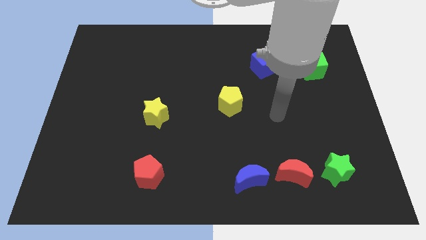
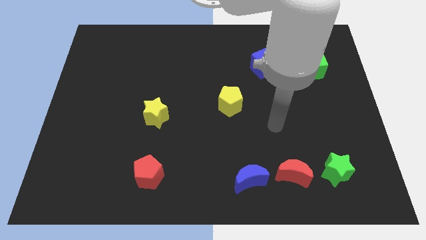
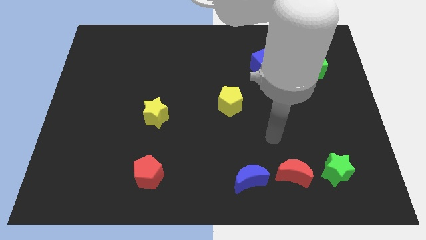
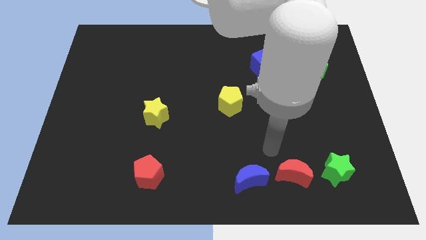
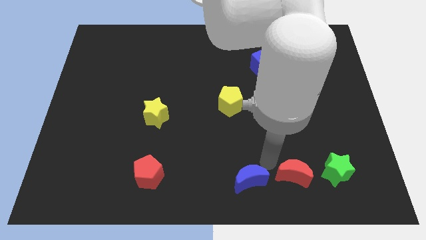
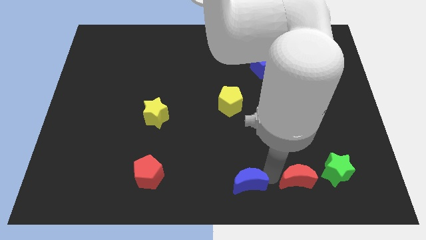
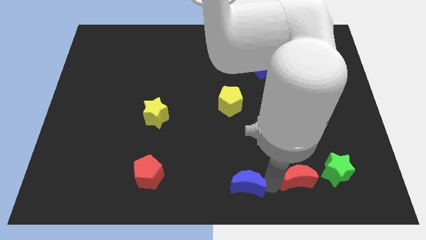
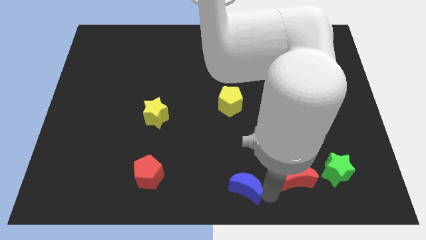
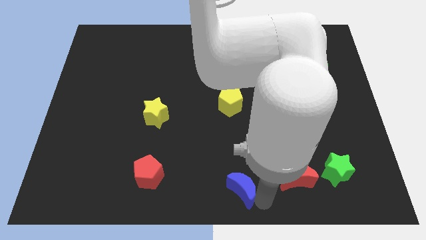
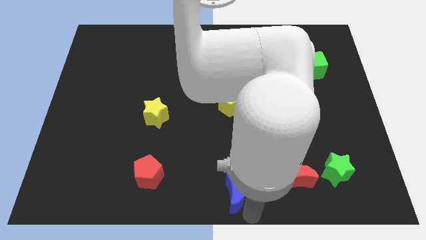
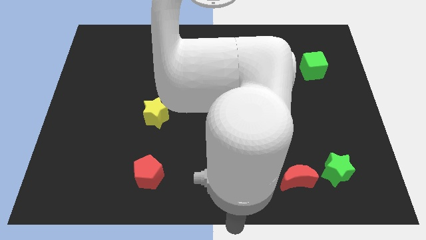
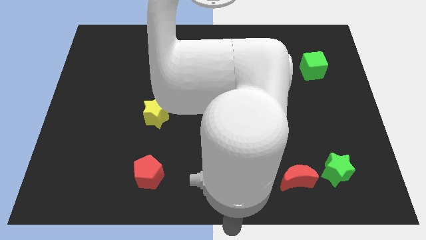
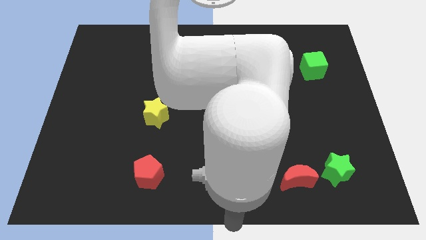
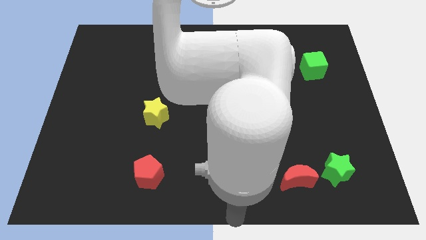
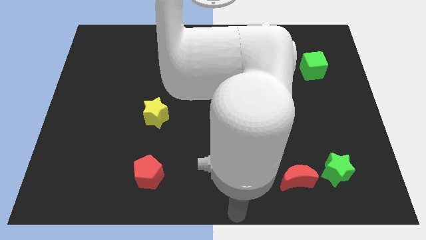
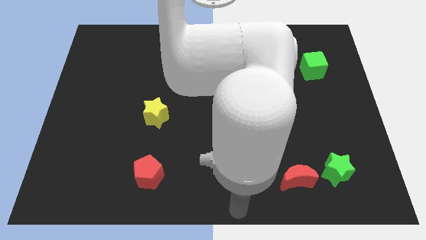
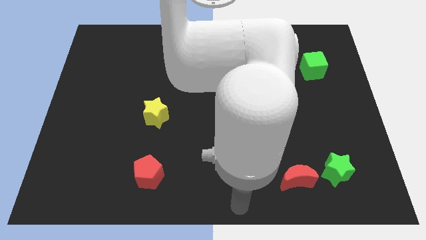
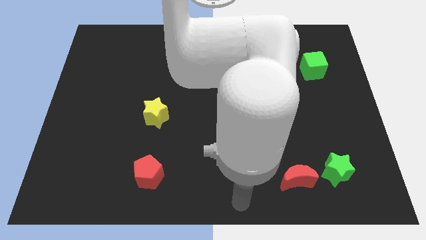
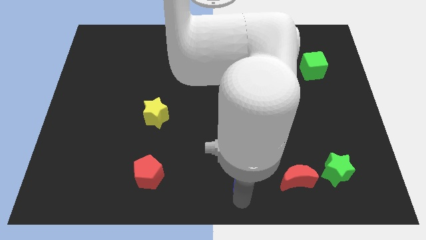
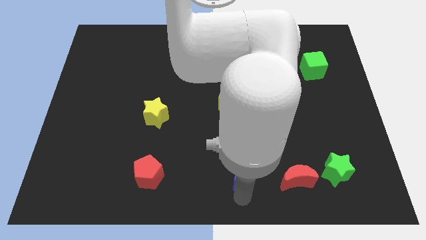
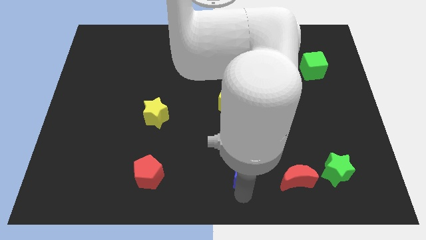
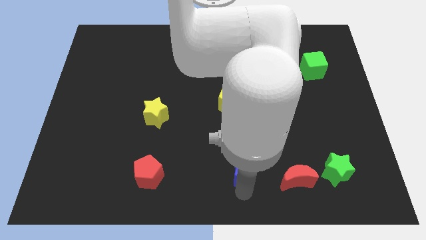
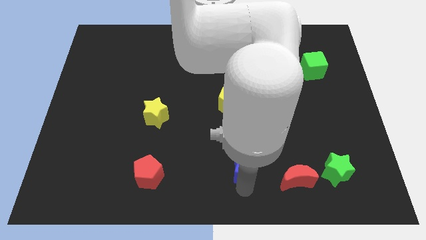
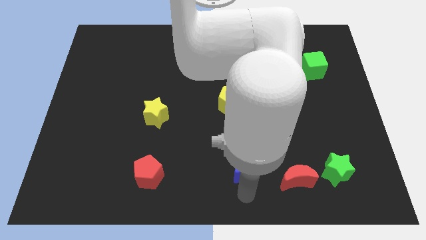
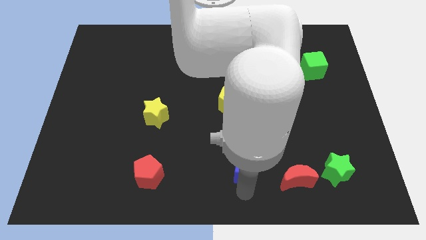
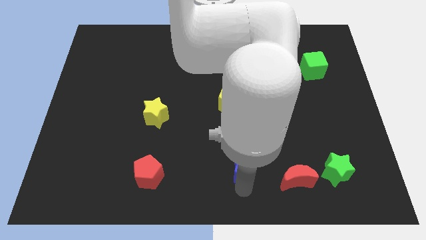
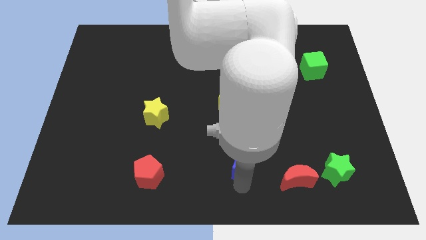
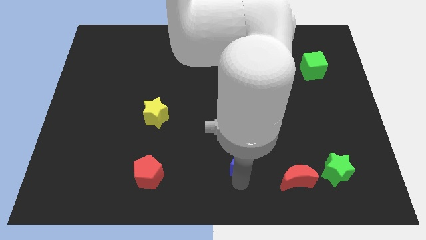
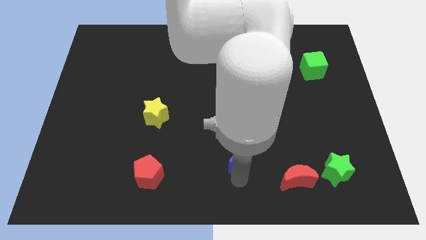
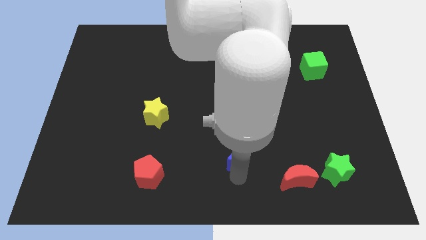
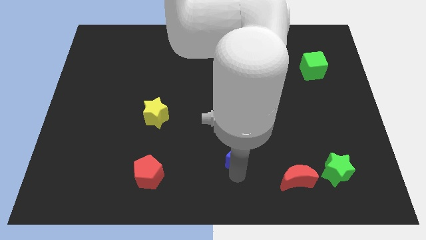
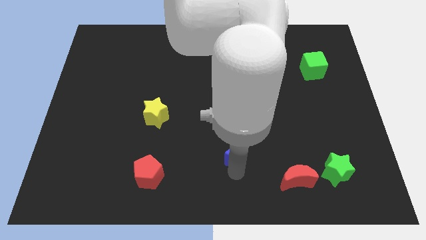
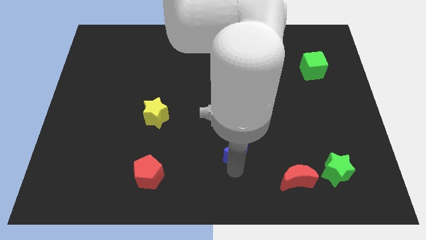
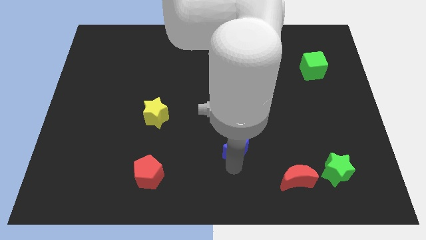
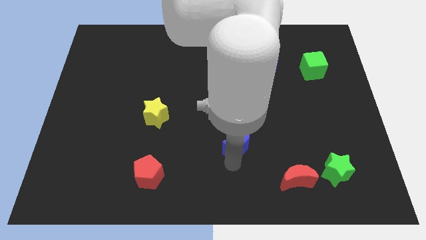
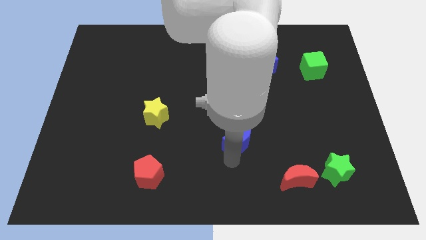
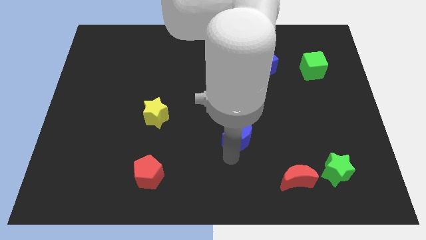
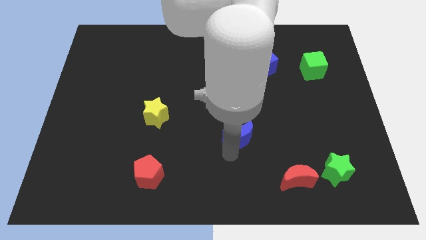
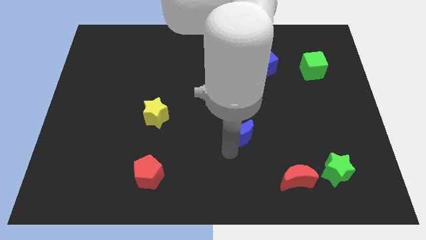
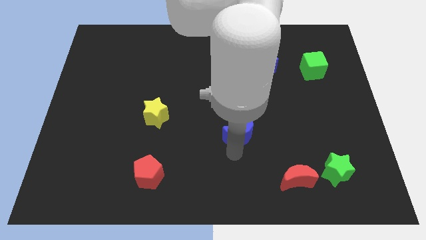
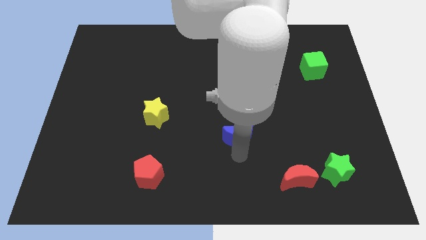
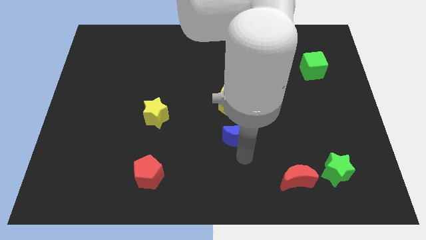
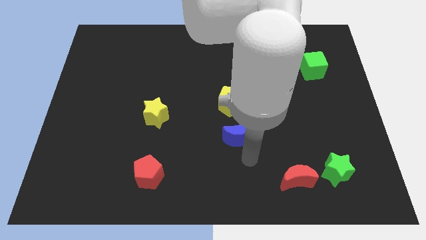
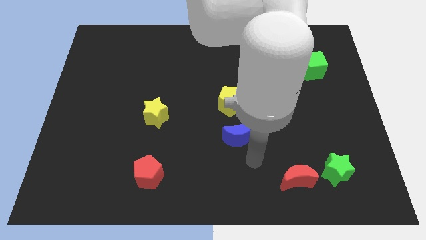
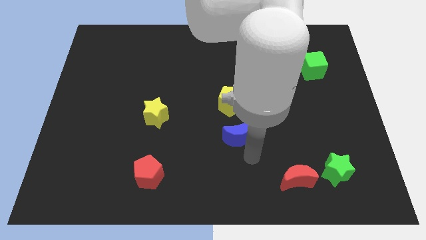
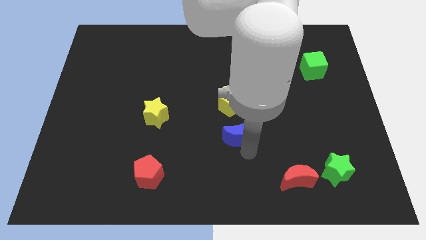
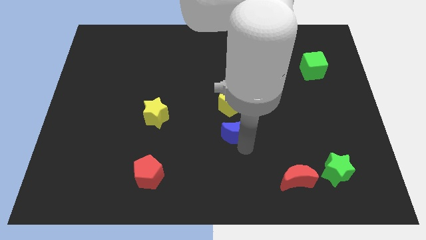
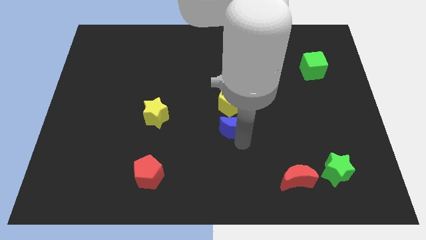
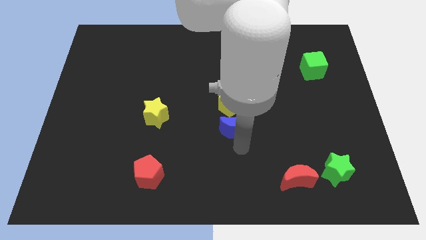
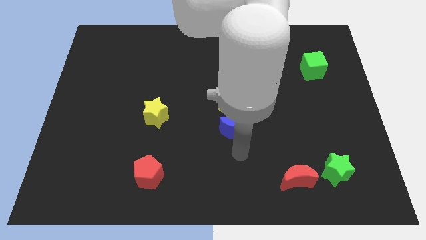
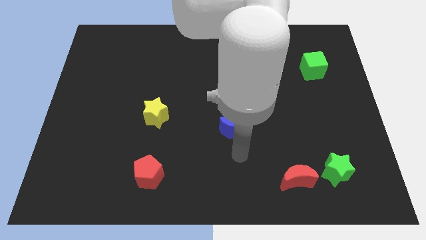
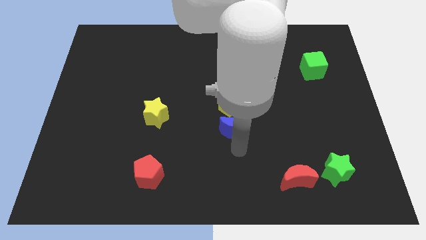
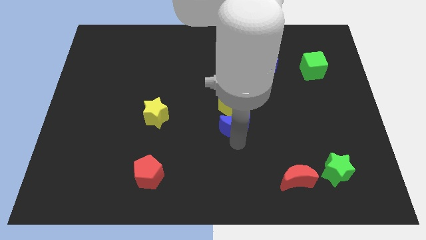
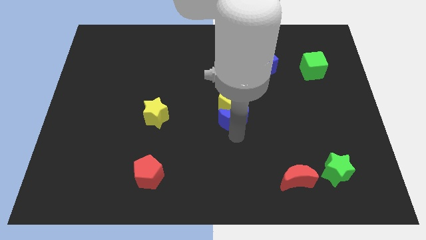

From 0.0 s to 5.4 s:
move the blue moon next to the yellow pentagon

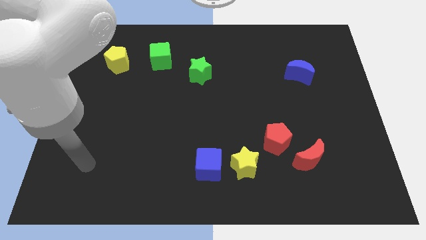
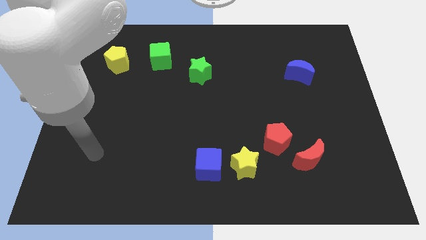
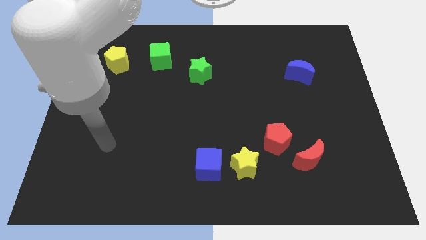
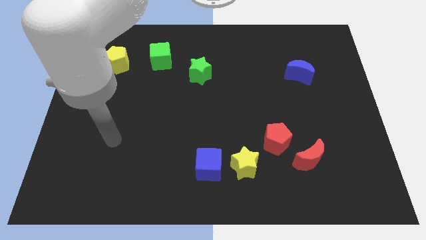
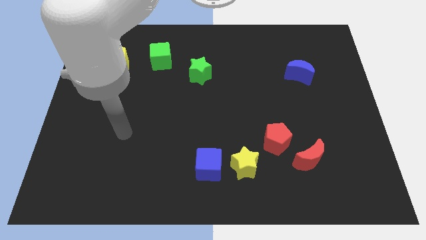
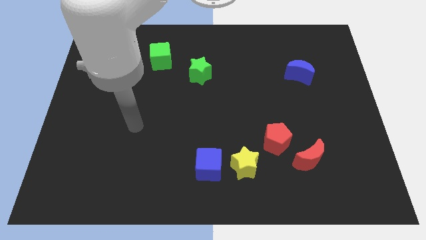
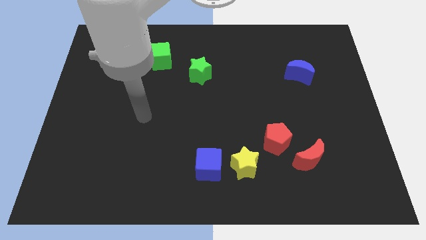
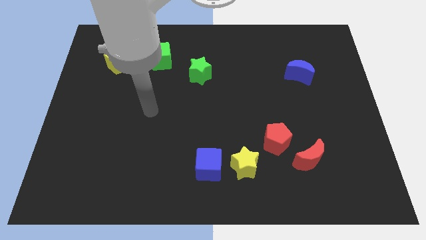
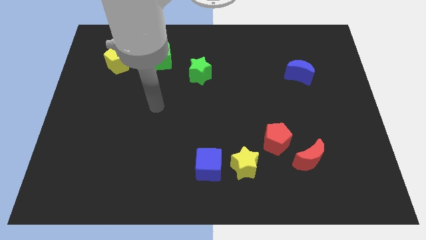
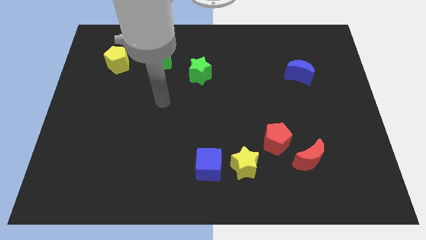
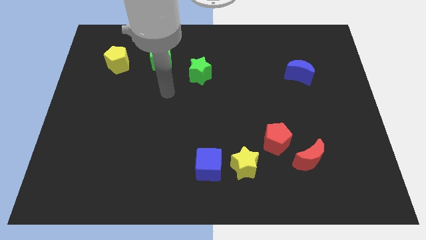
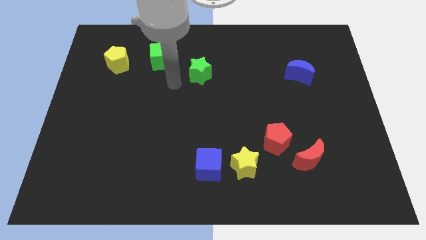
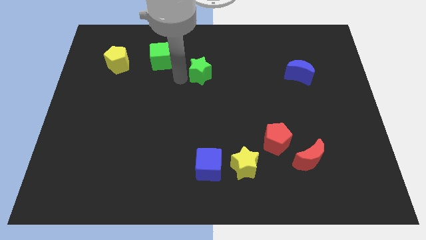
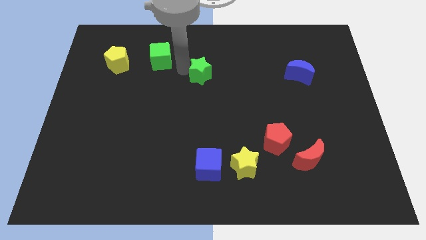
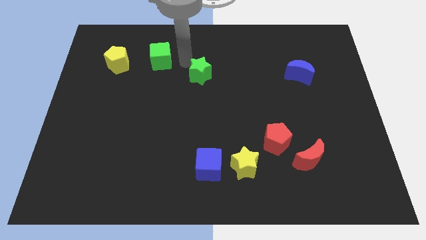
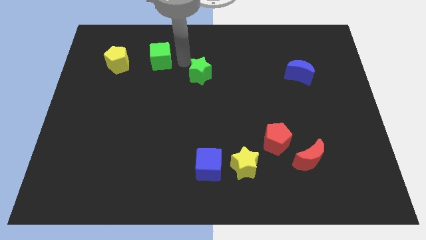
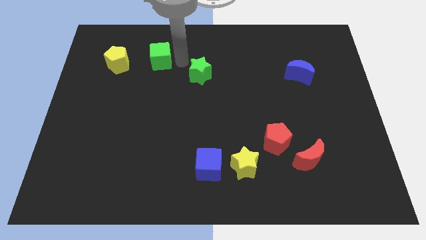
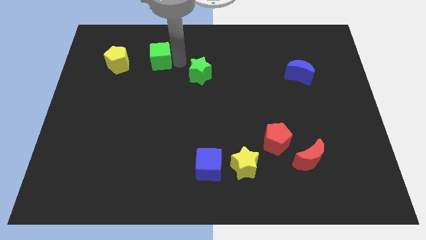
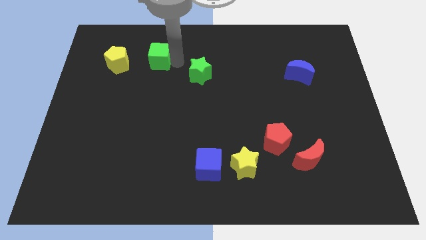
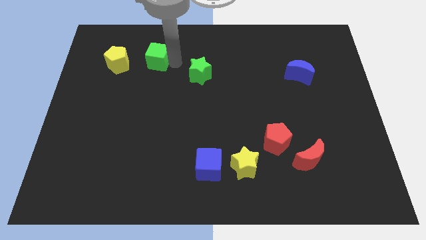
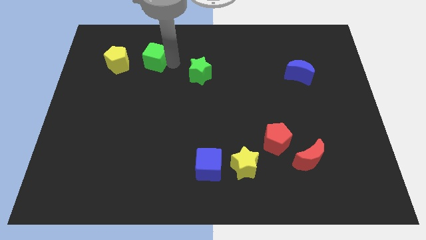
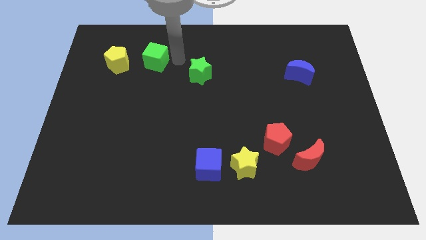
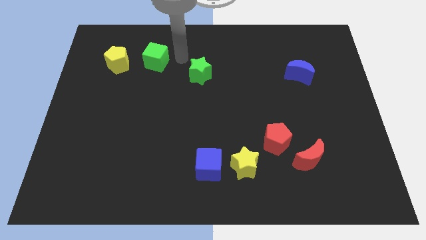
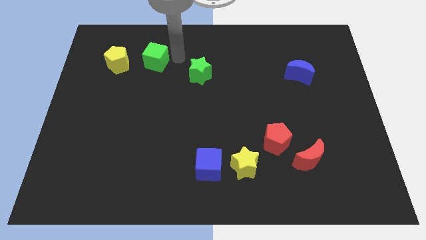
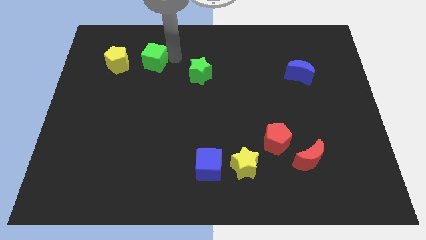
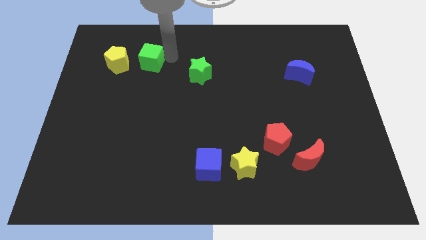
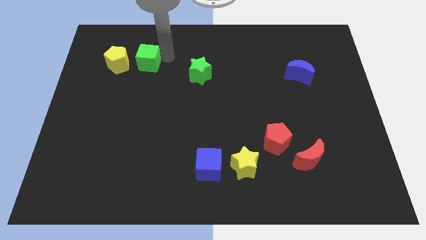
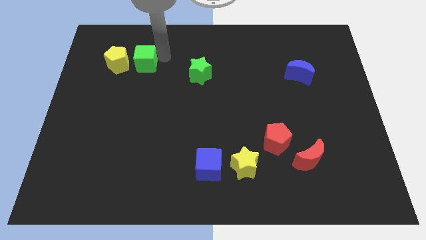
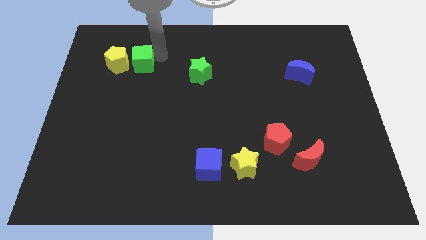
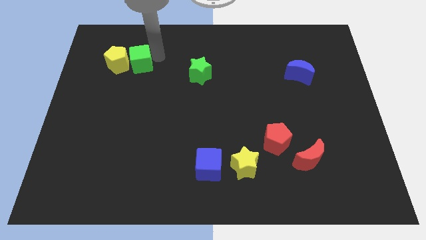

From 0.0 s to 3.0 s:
slide the green cube next to the yellow pentagon
